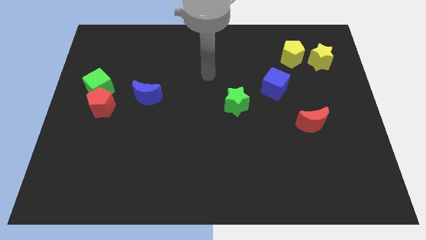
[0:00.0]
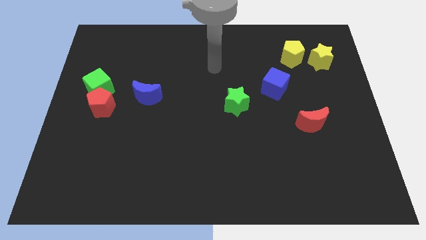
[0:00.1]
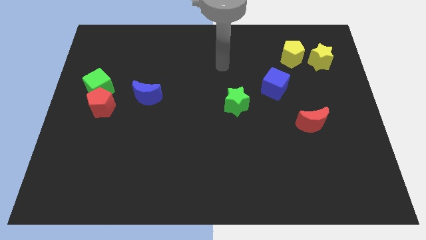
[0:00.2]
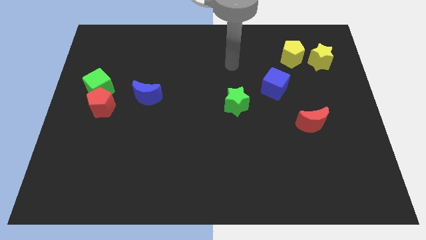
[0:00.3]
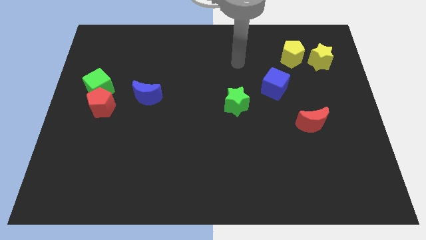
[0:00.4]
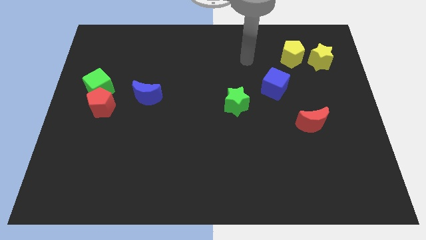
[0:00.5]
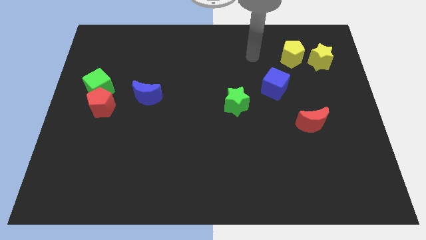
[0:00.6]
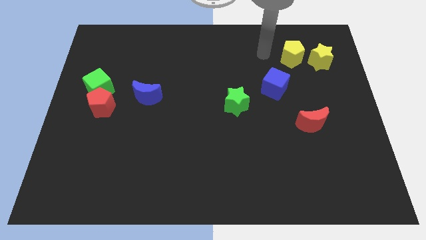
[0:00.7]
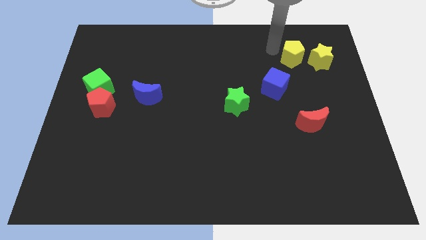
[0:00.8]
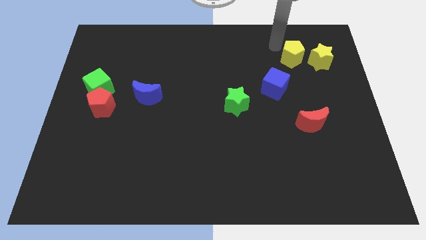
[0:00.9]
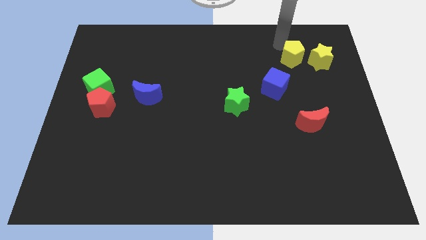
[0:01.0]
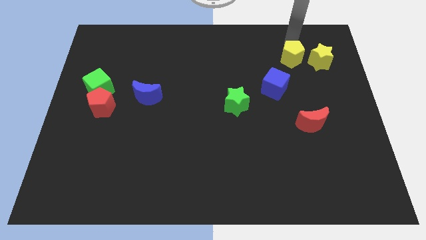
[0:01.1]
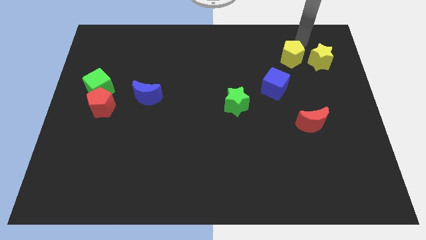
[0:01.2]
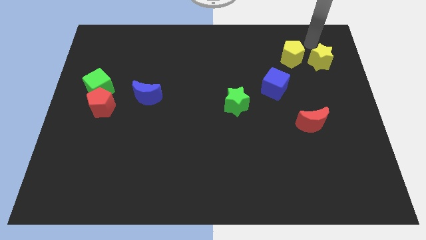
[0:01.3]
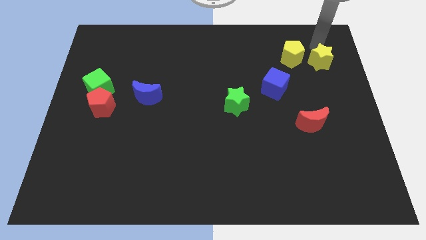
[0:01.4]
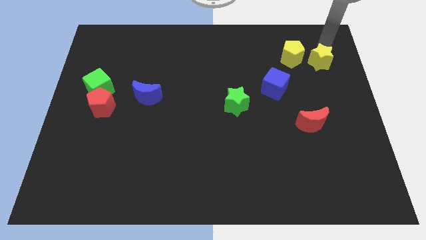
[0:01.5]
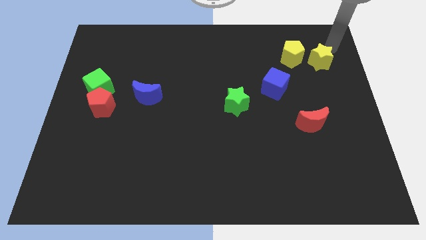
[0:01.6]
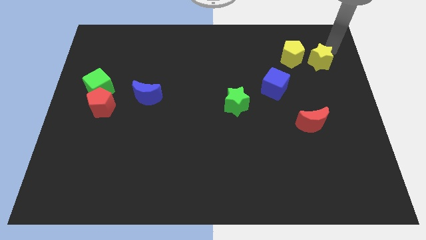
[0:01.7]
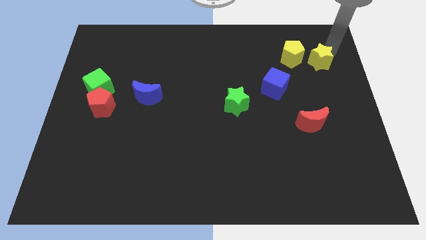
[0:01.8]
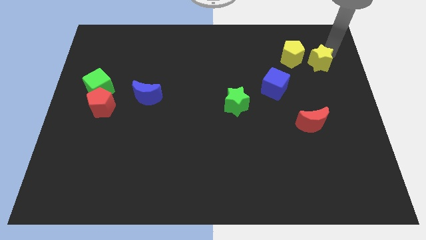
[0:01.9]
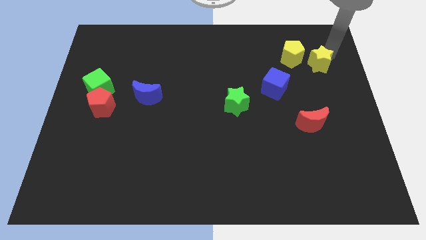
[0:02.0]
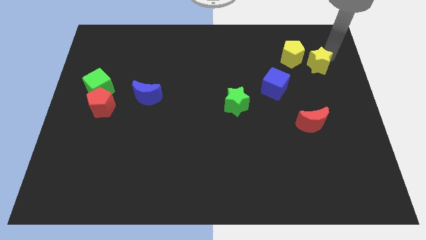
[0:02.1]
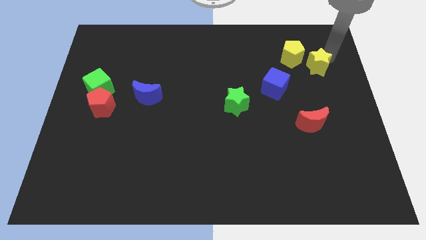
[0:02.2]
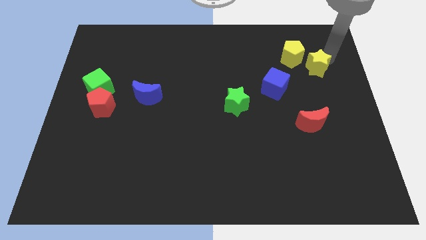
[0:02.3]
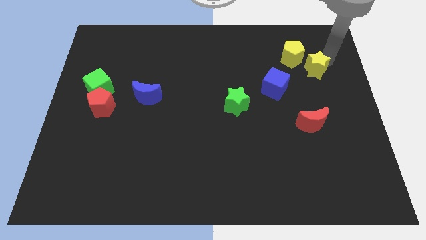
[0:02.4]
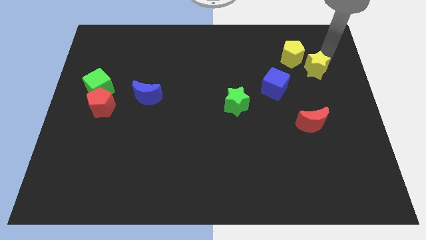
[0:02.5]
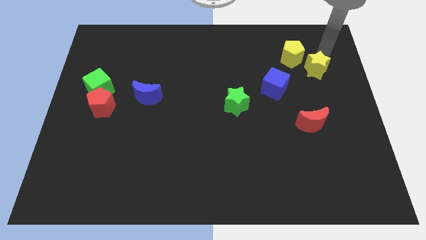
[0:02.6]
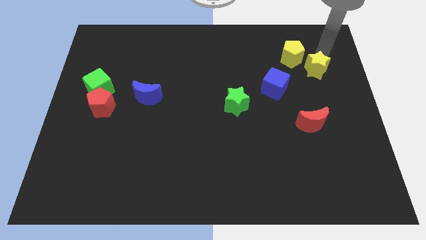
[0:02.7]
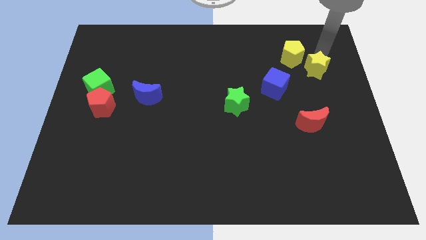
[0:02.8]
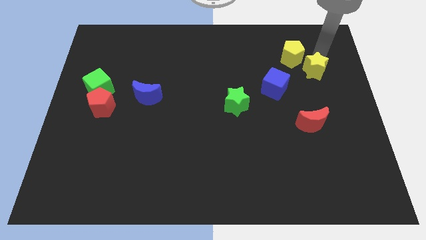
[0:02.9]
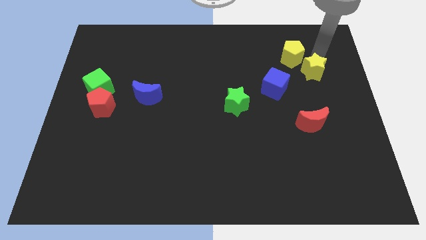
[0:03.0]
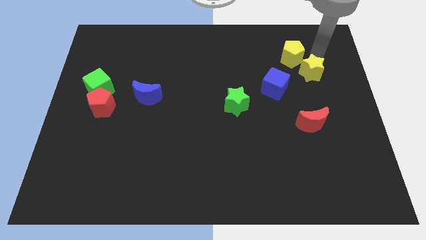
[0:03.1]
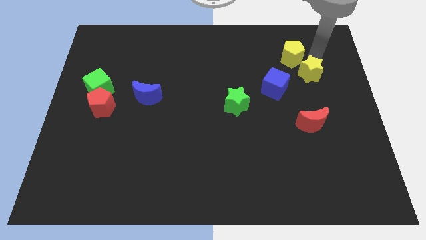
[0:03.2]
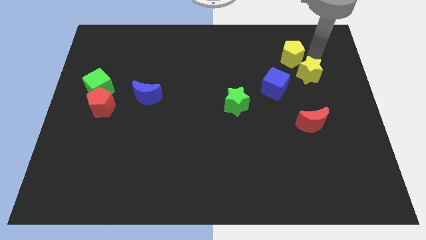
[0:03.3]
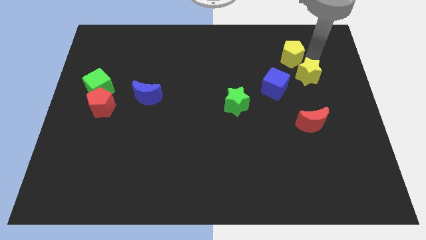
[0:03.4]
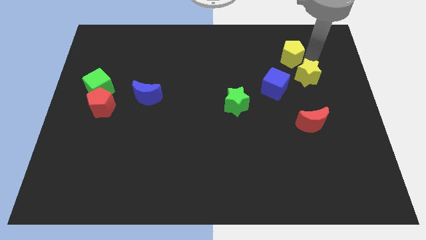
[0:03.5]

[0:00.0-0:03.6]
slide the yellow star down and to the left diagonally a bit

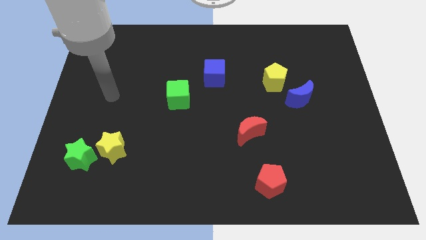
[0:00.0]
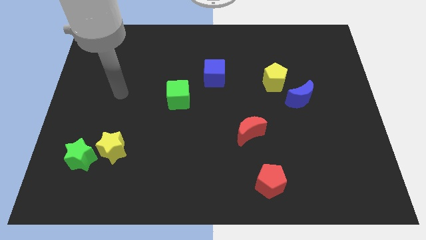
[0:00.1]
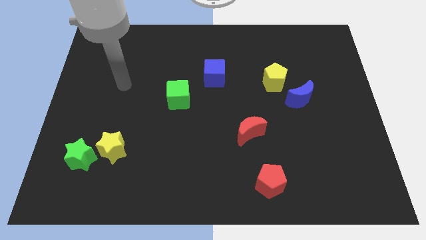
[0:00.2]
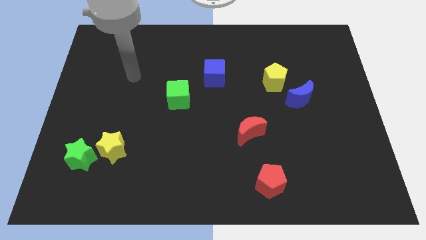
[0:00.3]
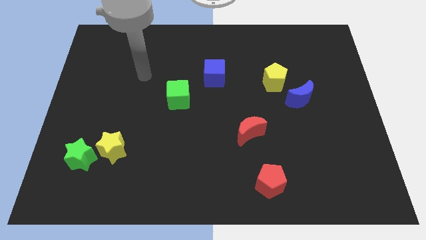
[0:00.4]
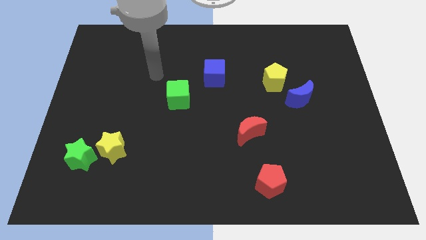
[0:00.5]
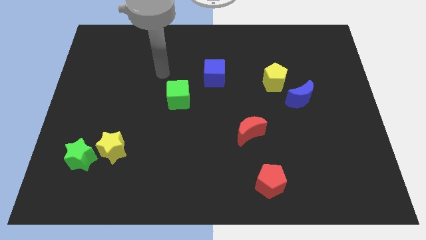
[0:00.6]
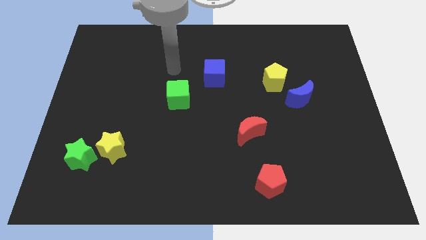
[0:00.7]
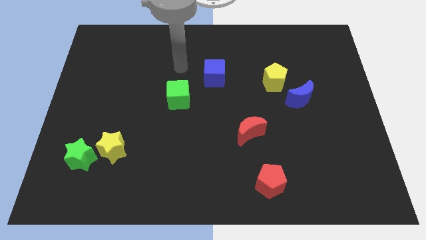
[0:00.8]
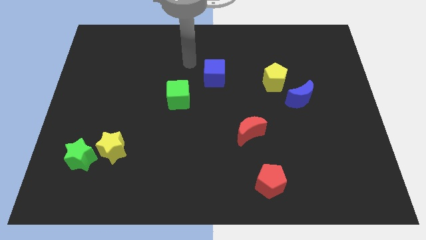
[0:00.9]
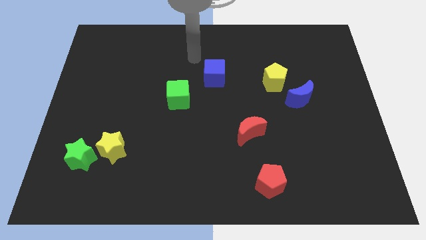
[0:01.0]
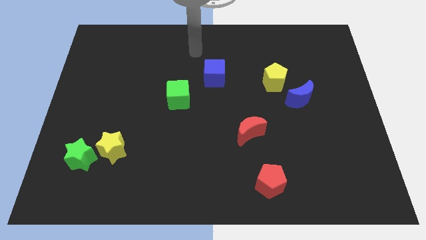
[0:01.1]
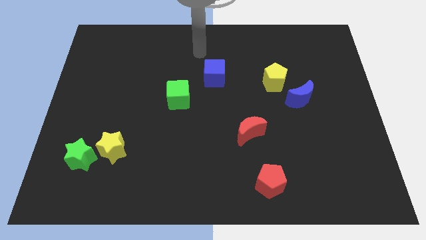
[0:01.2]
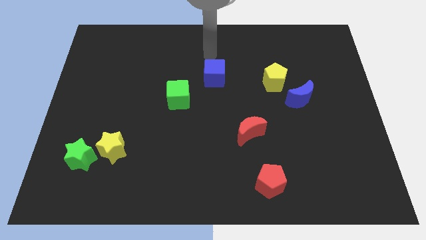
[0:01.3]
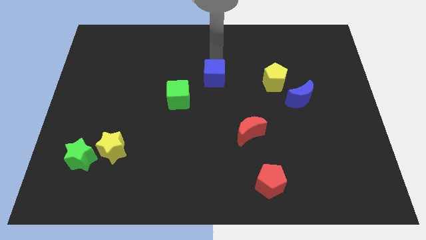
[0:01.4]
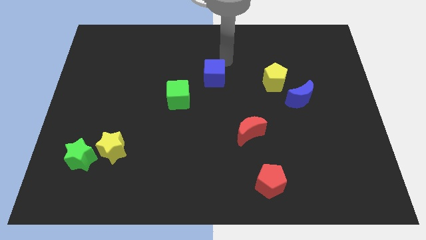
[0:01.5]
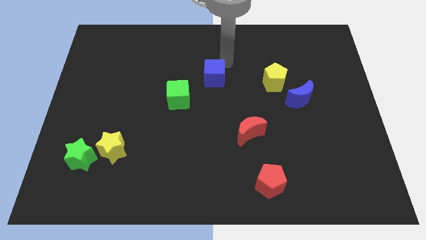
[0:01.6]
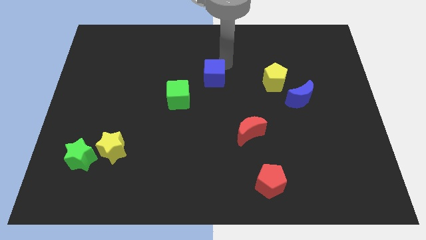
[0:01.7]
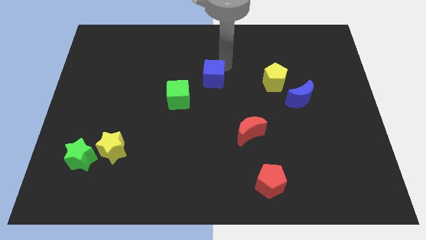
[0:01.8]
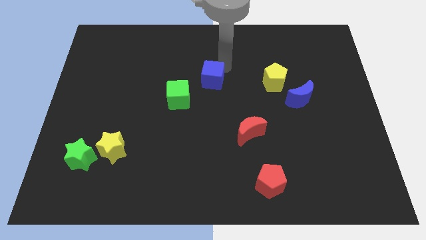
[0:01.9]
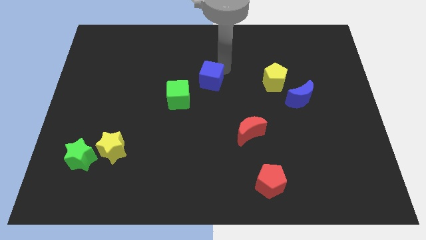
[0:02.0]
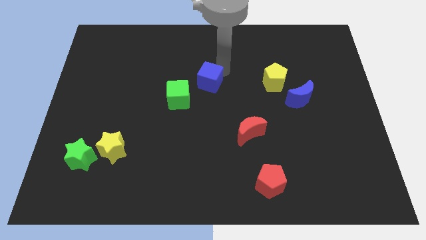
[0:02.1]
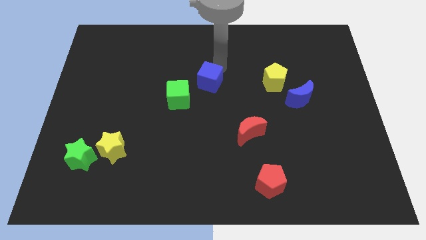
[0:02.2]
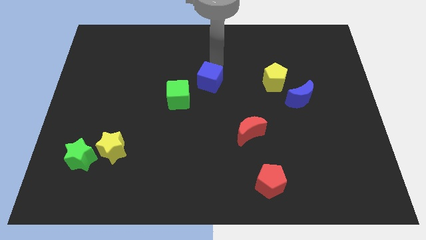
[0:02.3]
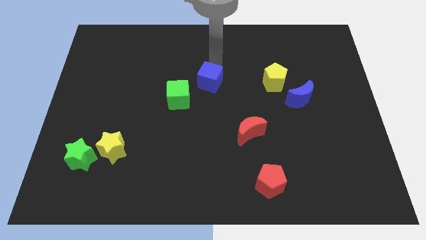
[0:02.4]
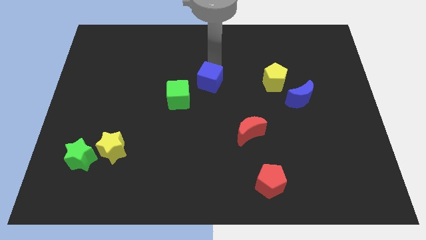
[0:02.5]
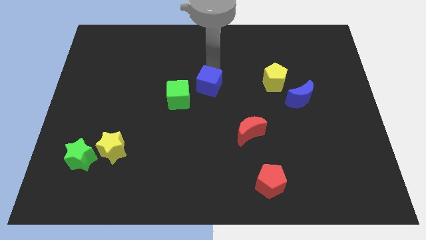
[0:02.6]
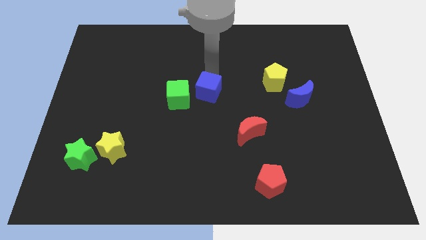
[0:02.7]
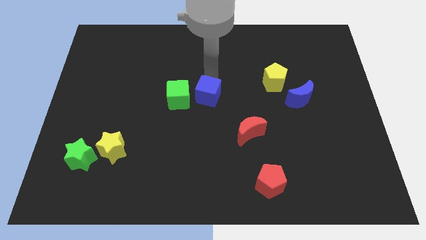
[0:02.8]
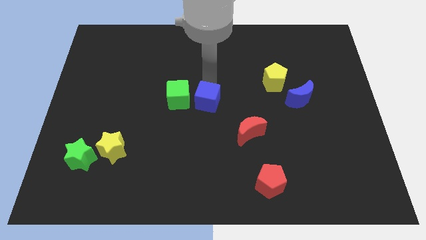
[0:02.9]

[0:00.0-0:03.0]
move the blue cube a little bit down

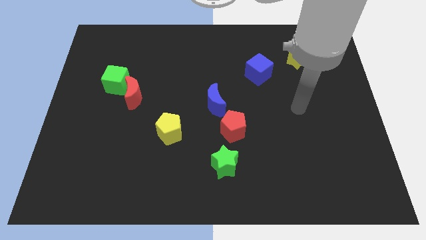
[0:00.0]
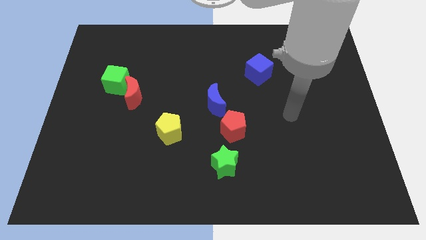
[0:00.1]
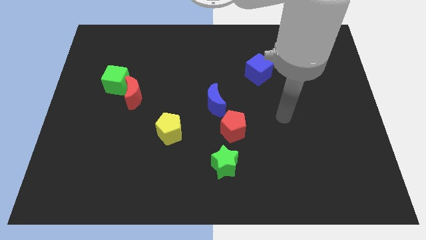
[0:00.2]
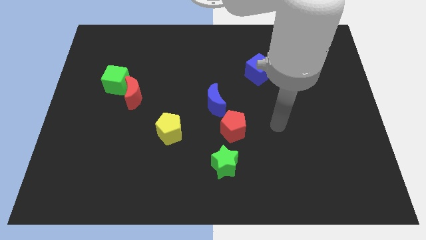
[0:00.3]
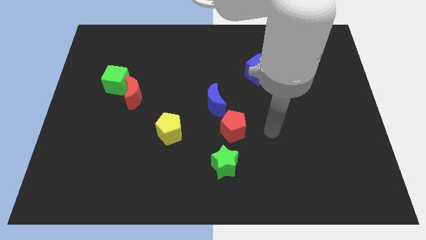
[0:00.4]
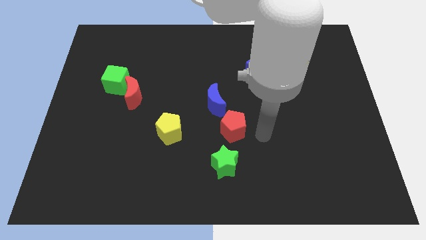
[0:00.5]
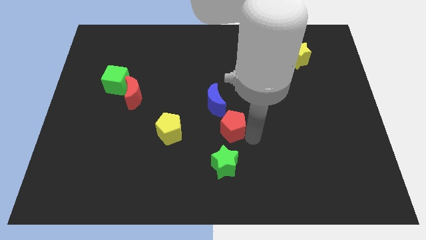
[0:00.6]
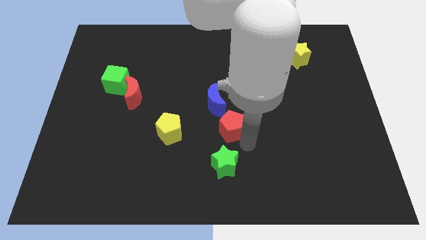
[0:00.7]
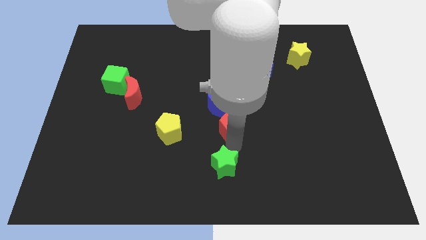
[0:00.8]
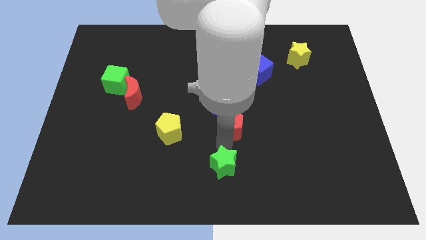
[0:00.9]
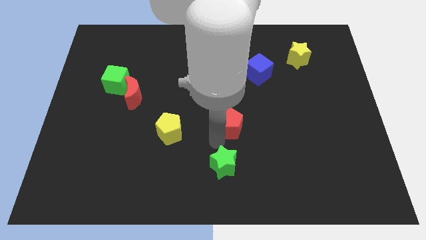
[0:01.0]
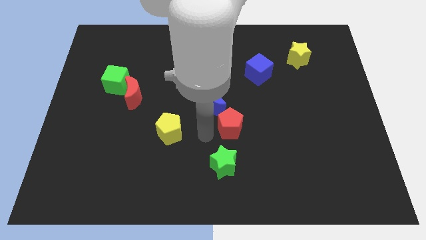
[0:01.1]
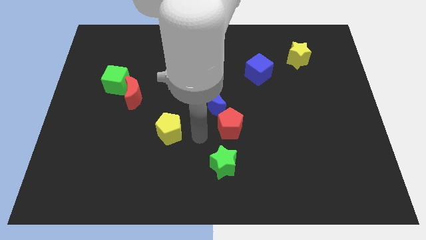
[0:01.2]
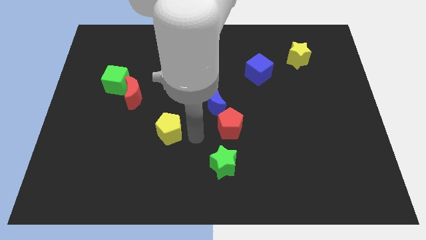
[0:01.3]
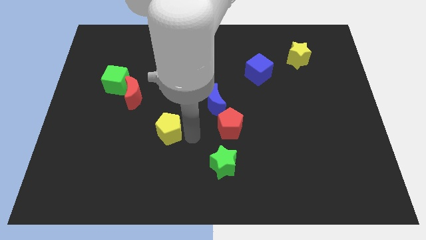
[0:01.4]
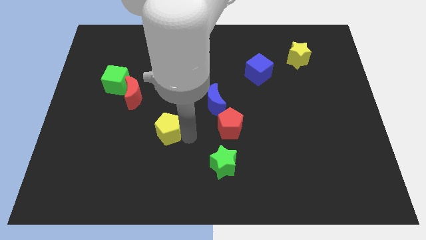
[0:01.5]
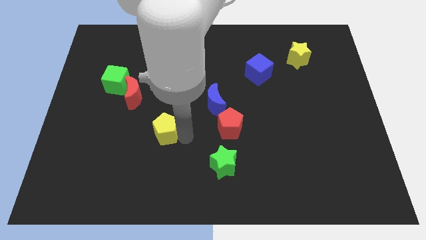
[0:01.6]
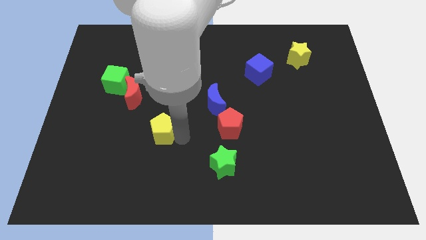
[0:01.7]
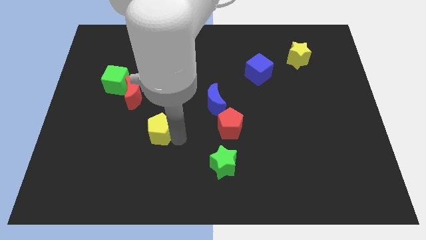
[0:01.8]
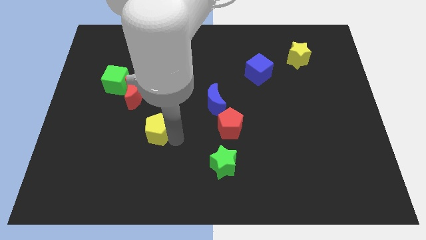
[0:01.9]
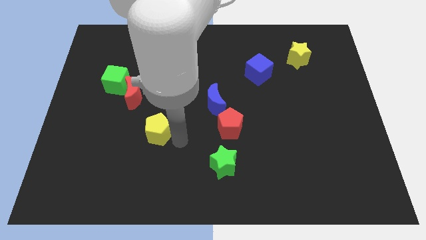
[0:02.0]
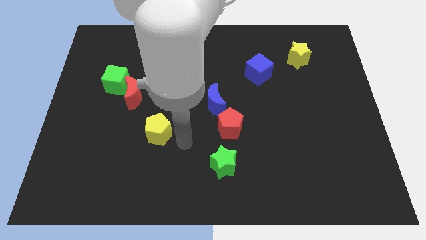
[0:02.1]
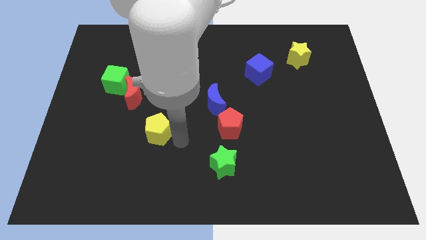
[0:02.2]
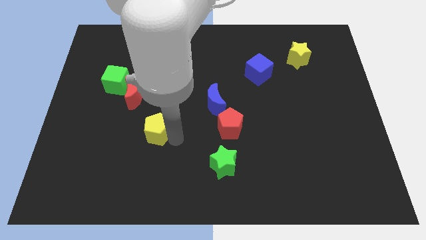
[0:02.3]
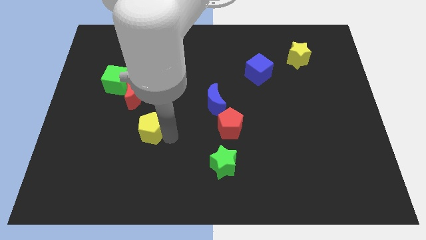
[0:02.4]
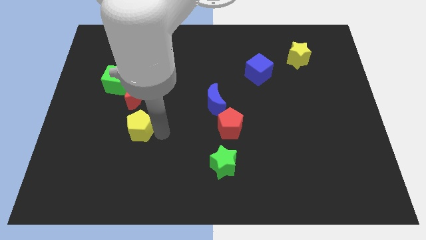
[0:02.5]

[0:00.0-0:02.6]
slightly slide the yellow pentagon left
